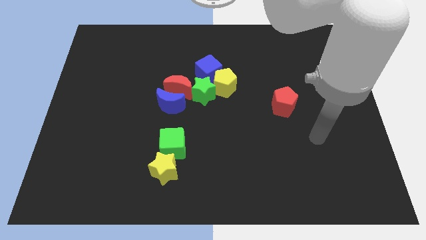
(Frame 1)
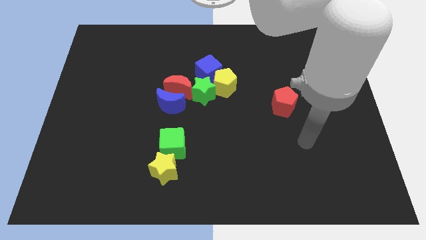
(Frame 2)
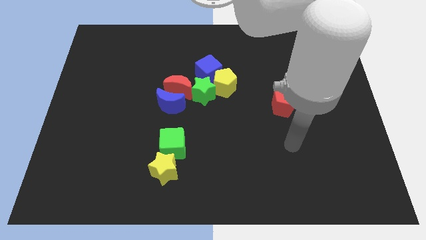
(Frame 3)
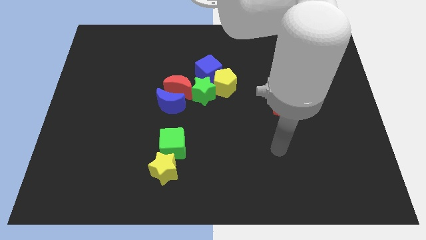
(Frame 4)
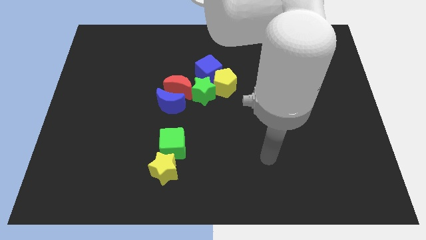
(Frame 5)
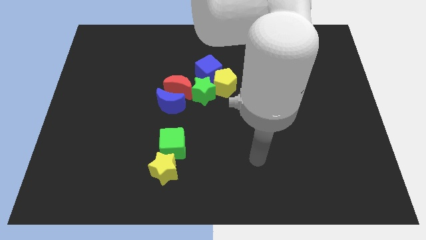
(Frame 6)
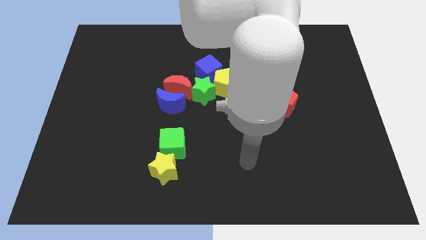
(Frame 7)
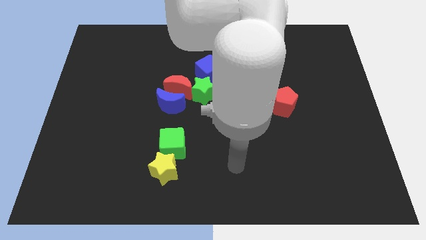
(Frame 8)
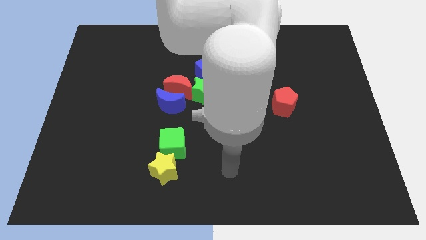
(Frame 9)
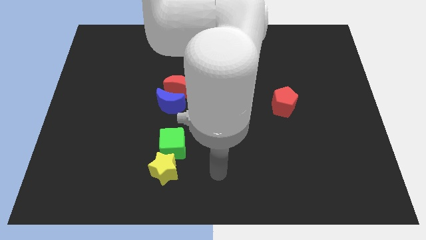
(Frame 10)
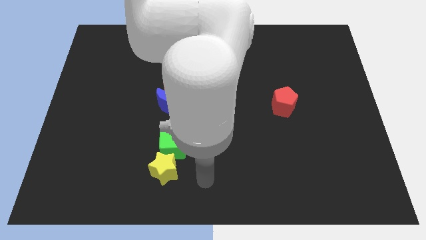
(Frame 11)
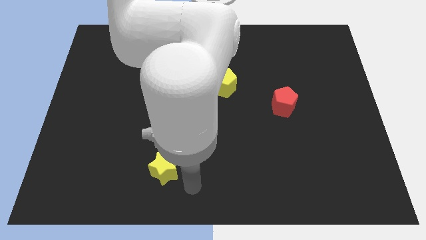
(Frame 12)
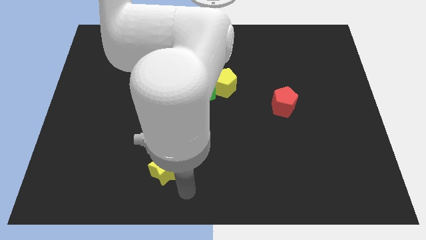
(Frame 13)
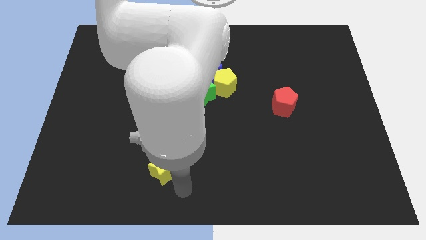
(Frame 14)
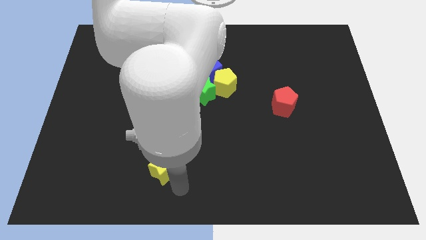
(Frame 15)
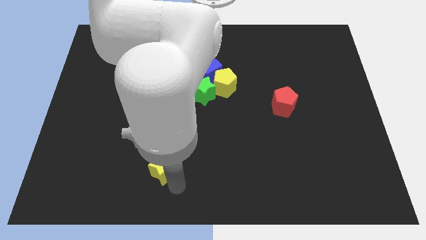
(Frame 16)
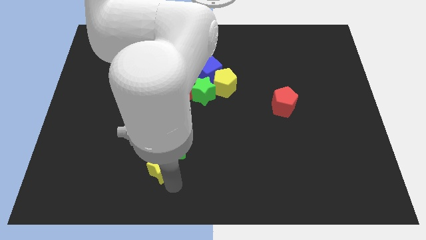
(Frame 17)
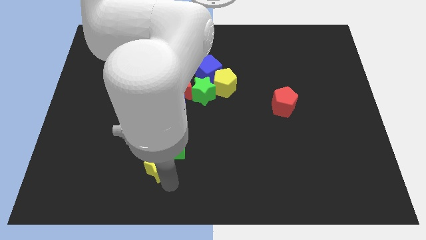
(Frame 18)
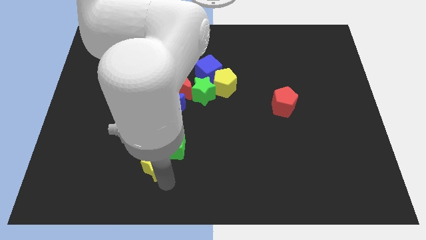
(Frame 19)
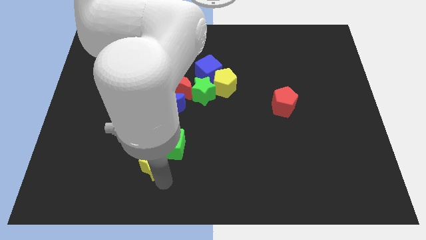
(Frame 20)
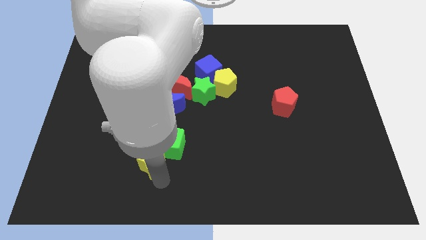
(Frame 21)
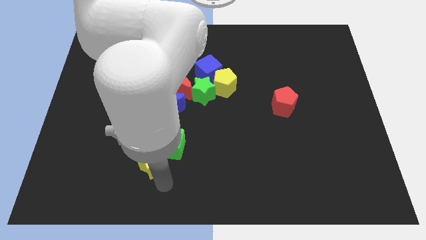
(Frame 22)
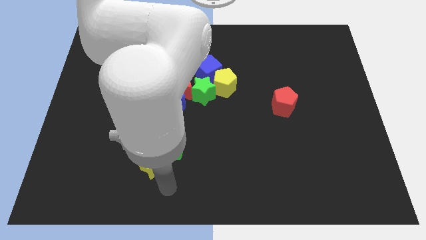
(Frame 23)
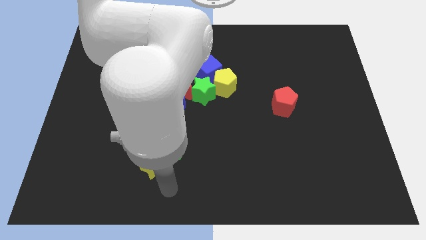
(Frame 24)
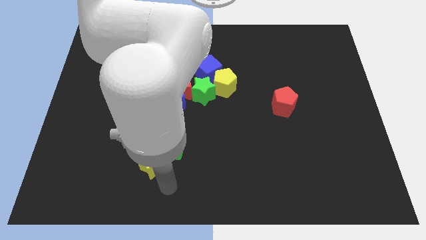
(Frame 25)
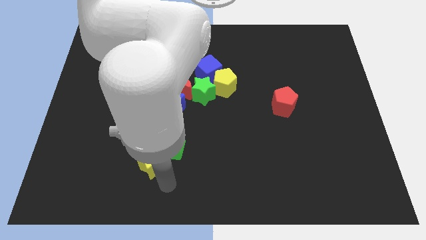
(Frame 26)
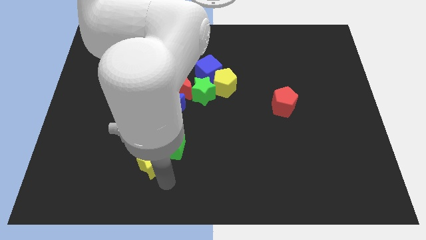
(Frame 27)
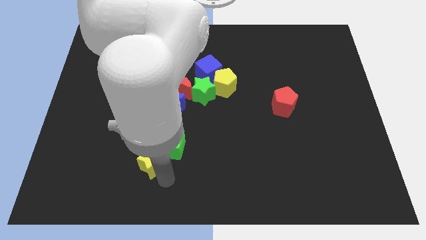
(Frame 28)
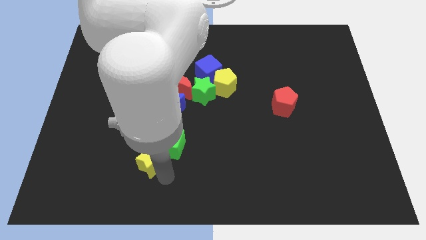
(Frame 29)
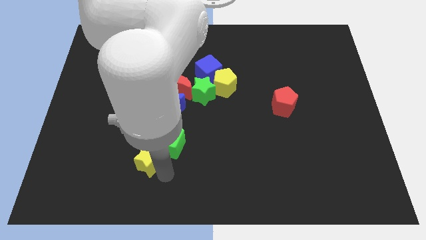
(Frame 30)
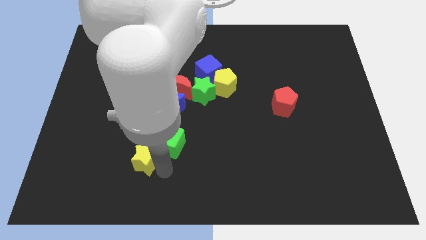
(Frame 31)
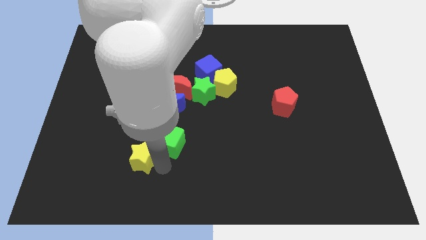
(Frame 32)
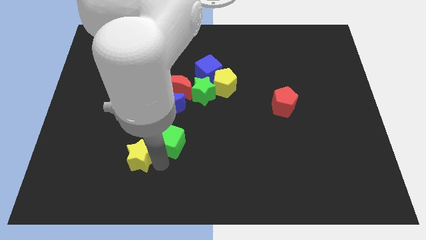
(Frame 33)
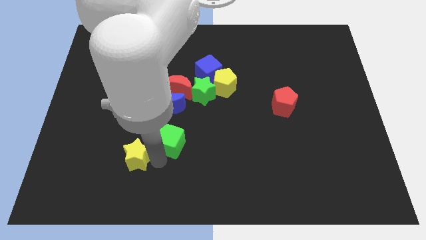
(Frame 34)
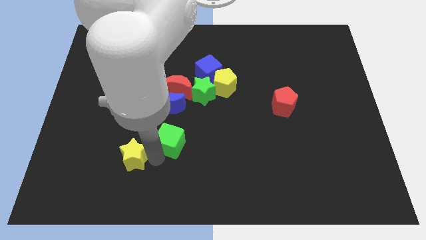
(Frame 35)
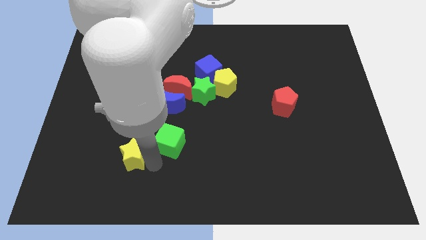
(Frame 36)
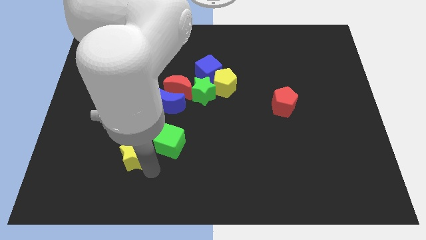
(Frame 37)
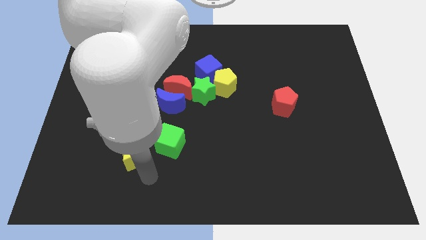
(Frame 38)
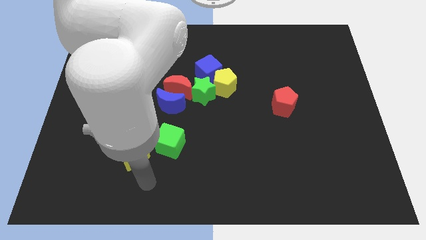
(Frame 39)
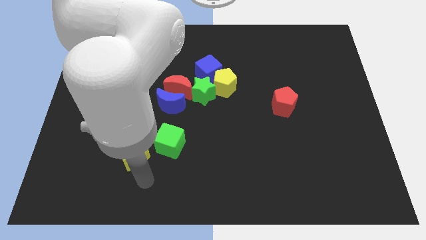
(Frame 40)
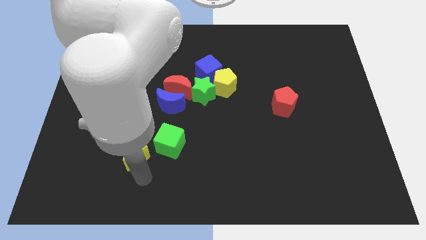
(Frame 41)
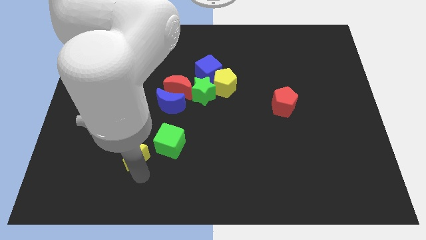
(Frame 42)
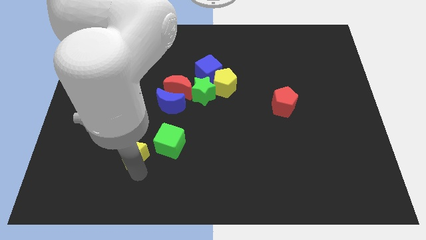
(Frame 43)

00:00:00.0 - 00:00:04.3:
move the yellow star a little bit diagonally up and left

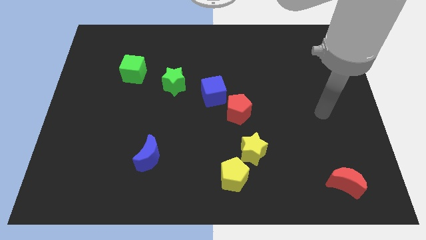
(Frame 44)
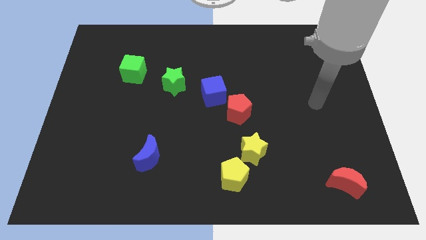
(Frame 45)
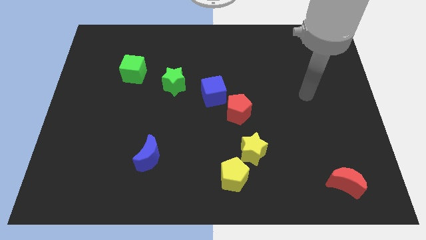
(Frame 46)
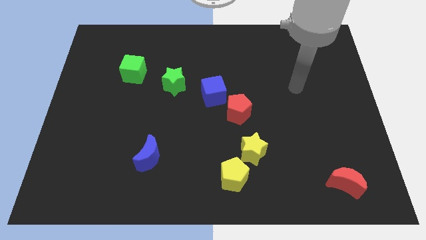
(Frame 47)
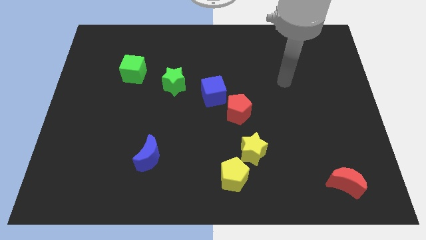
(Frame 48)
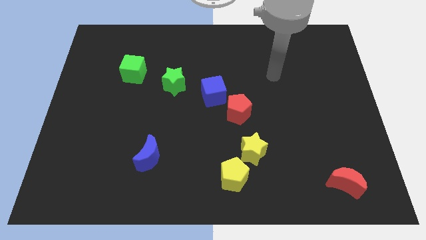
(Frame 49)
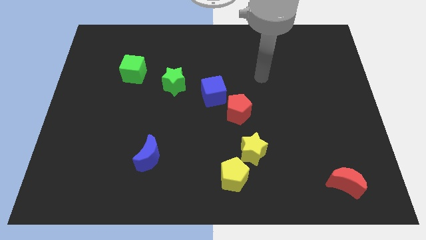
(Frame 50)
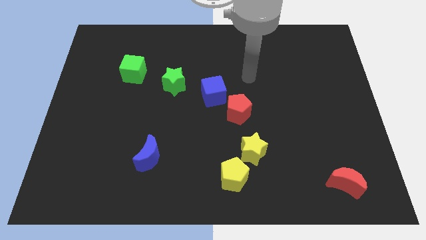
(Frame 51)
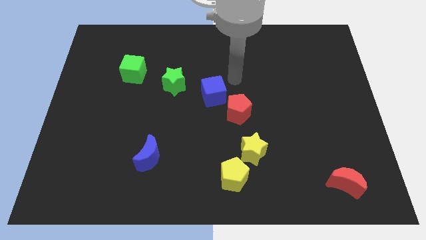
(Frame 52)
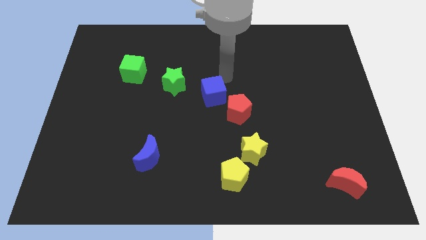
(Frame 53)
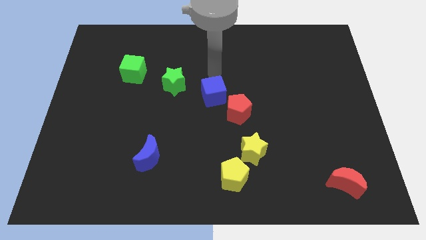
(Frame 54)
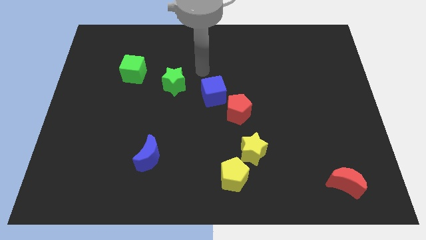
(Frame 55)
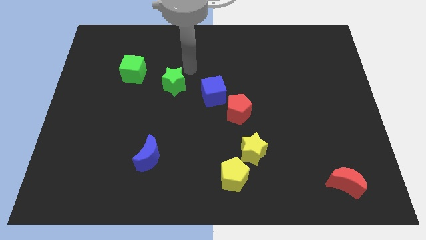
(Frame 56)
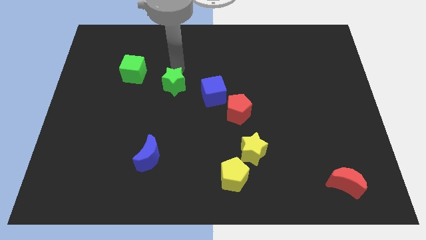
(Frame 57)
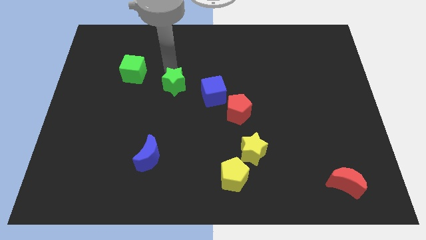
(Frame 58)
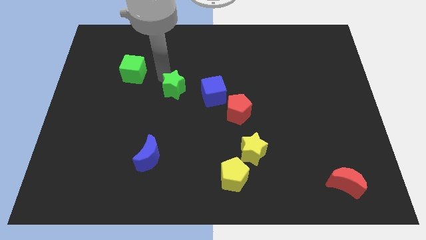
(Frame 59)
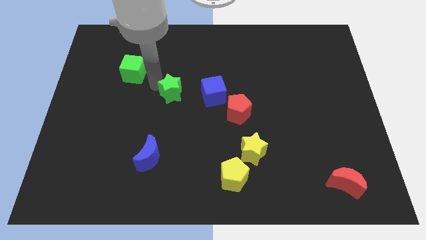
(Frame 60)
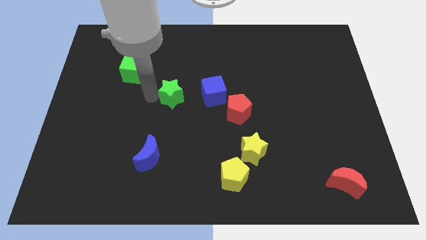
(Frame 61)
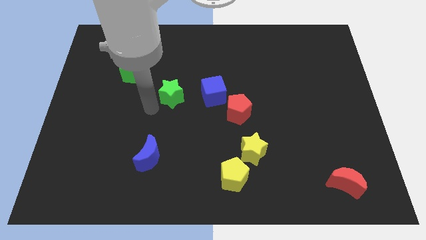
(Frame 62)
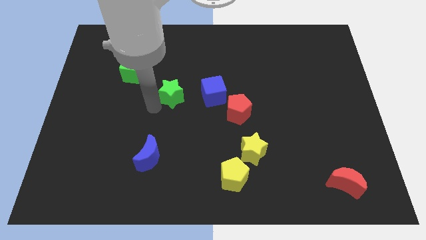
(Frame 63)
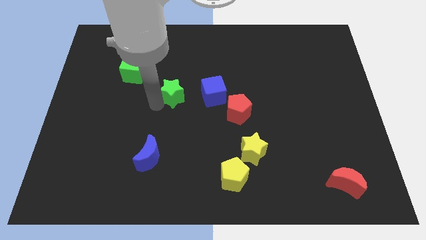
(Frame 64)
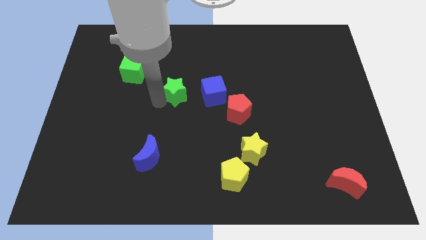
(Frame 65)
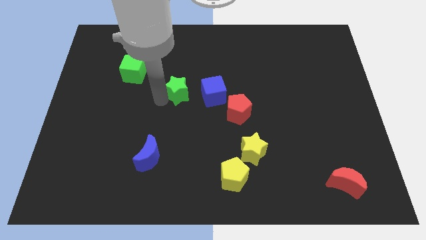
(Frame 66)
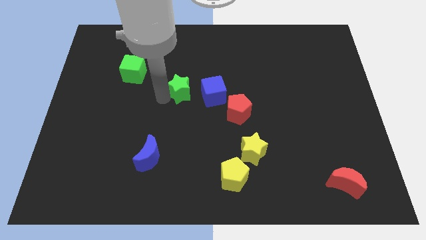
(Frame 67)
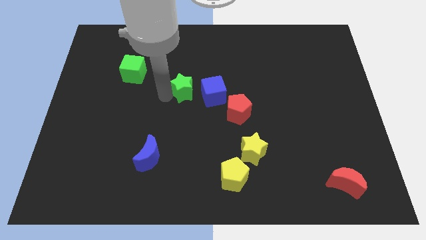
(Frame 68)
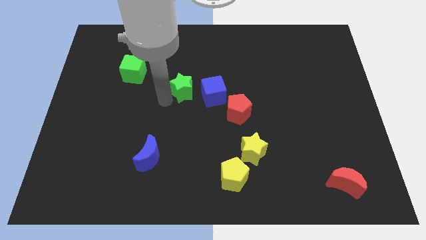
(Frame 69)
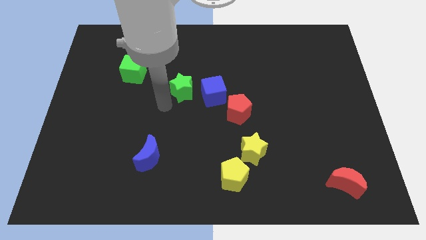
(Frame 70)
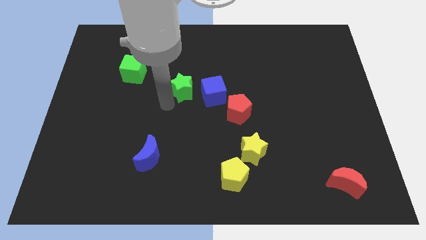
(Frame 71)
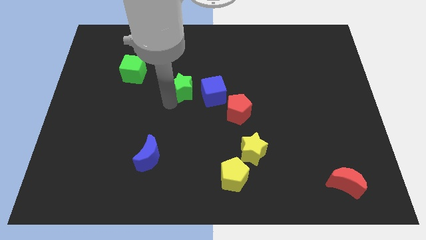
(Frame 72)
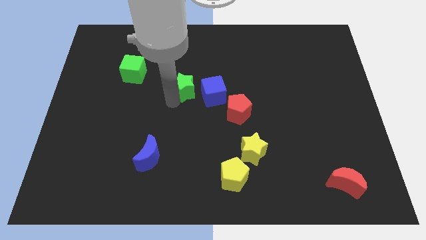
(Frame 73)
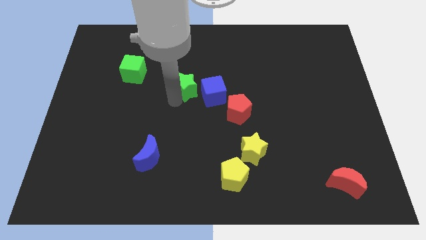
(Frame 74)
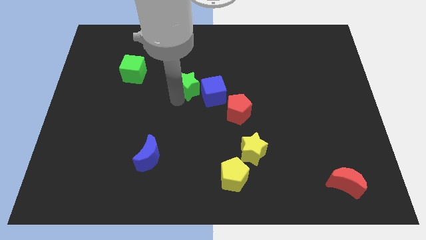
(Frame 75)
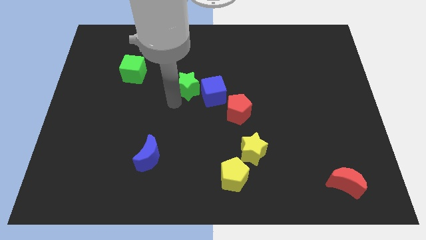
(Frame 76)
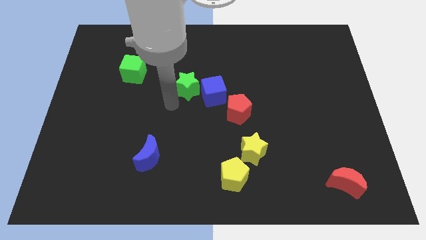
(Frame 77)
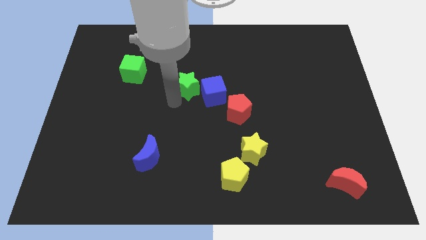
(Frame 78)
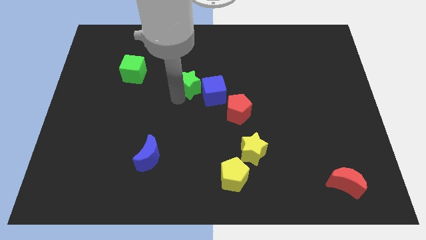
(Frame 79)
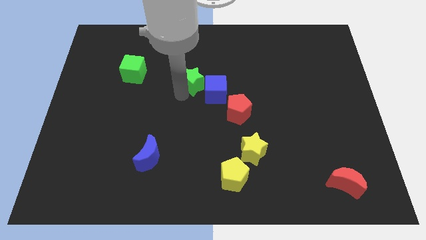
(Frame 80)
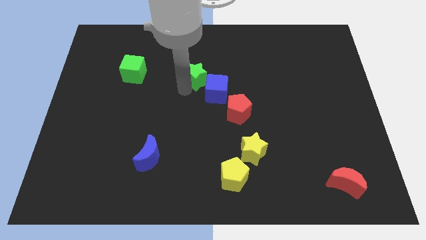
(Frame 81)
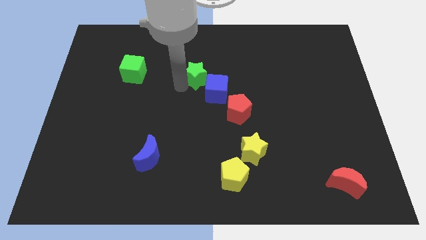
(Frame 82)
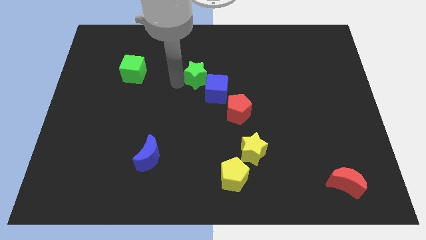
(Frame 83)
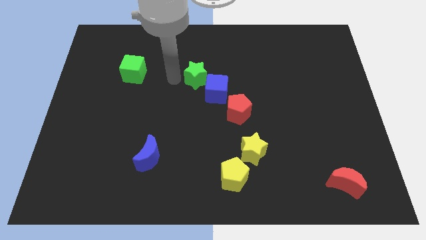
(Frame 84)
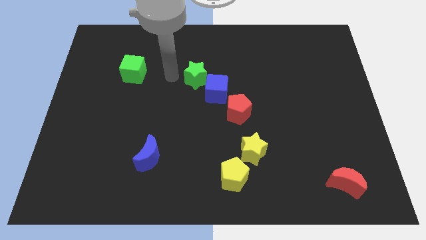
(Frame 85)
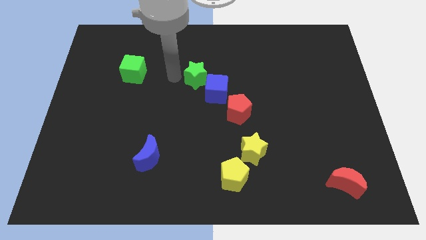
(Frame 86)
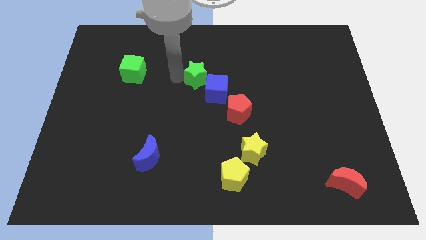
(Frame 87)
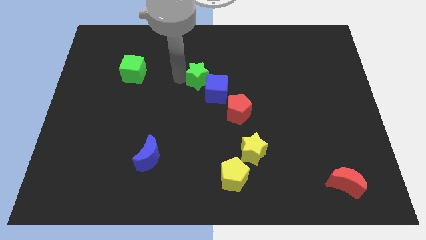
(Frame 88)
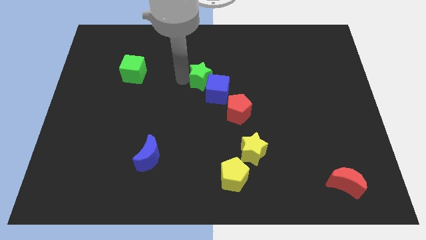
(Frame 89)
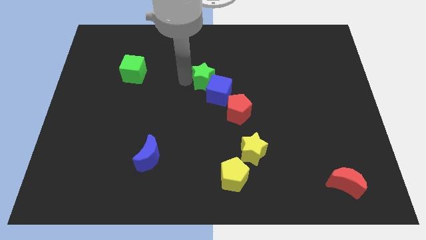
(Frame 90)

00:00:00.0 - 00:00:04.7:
push the green star a little right
